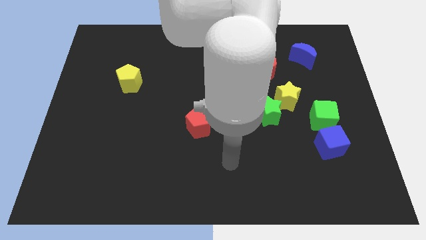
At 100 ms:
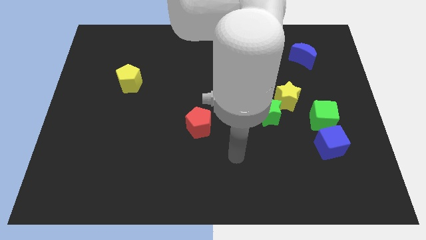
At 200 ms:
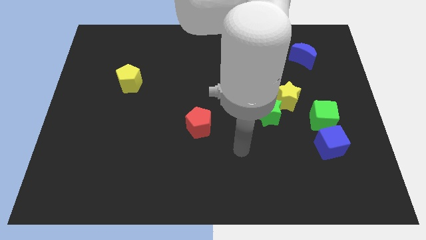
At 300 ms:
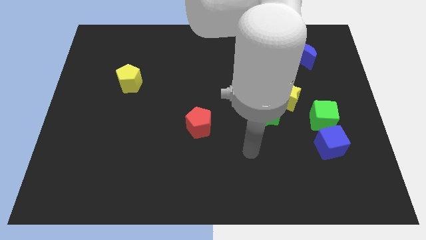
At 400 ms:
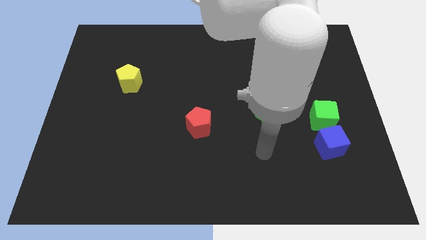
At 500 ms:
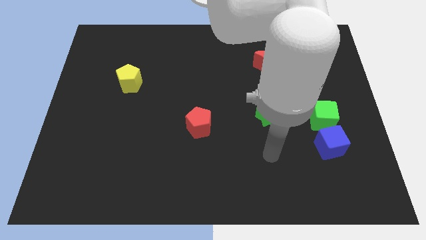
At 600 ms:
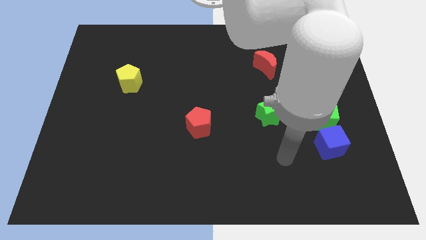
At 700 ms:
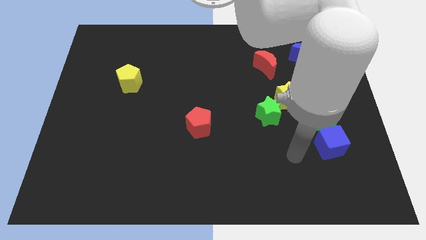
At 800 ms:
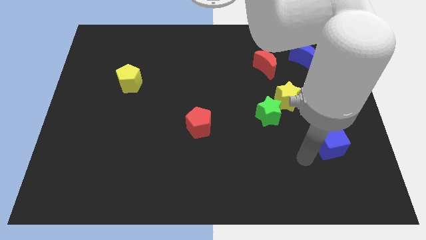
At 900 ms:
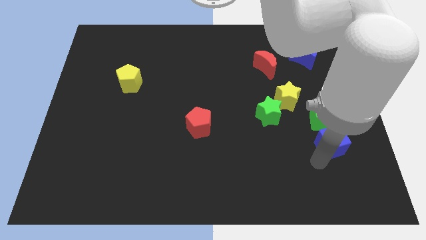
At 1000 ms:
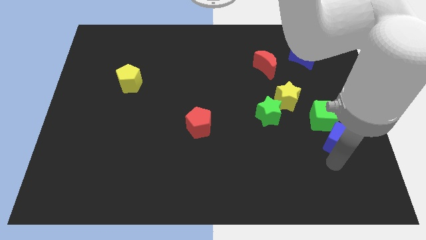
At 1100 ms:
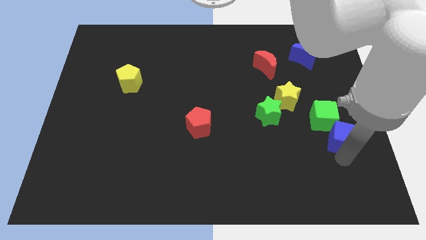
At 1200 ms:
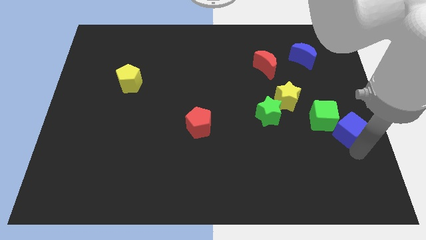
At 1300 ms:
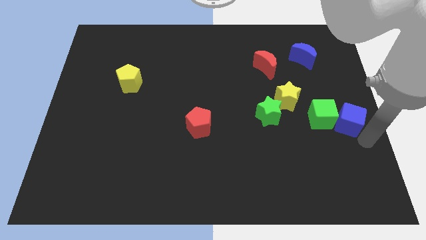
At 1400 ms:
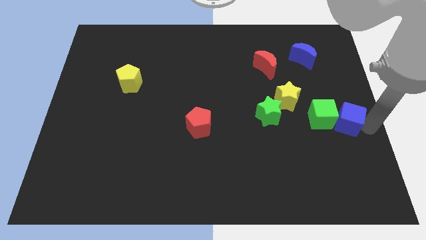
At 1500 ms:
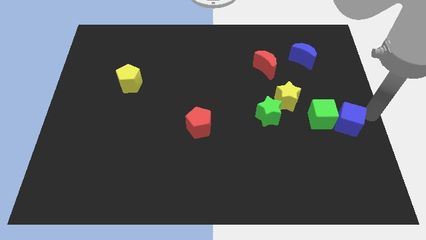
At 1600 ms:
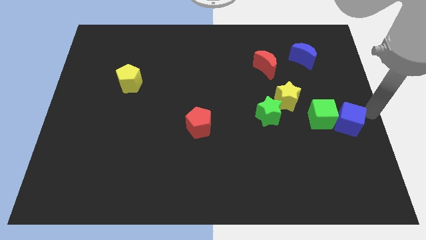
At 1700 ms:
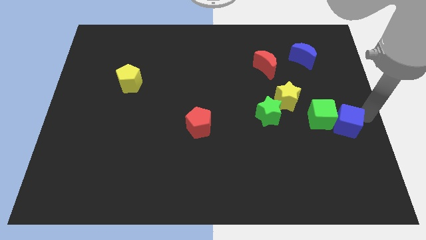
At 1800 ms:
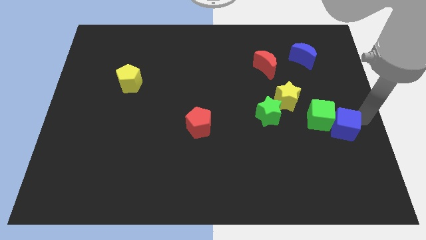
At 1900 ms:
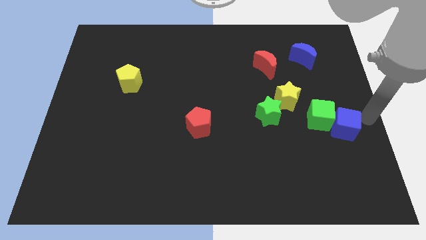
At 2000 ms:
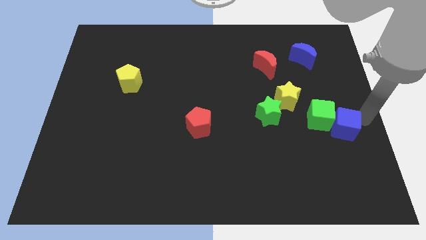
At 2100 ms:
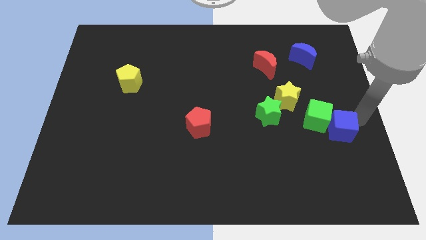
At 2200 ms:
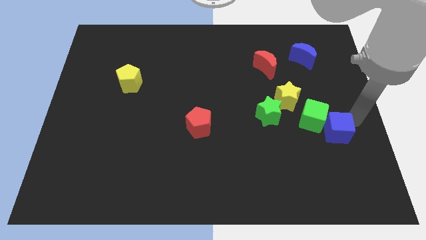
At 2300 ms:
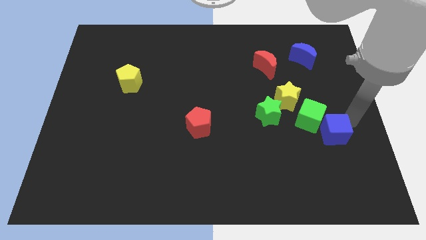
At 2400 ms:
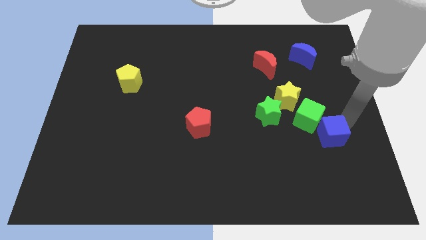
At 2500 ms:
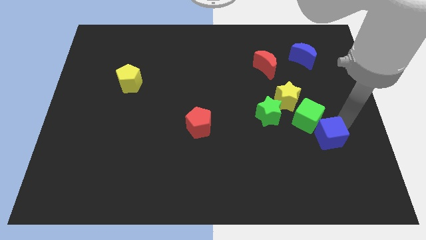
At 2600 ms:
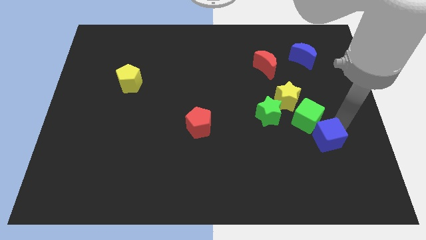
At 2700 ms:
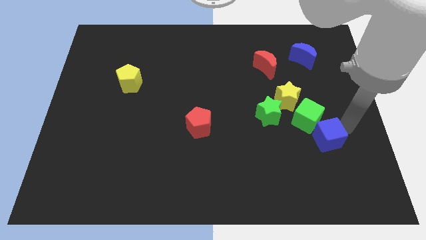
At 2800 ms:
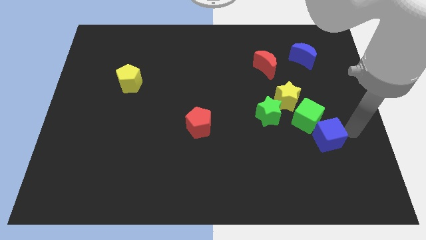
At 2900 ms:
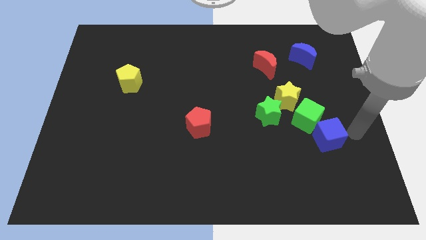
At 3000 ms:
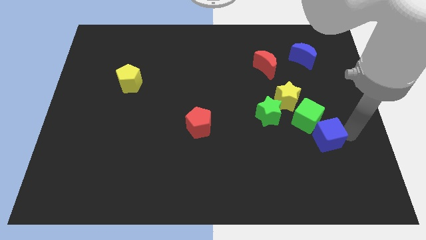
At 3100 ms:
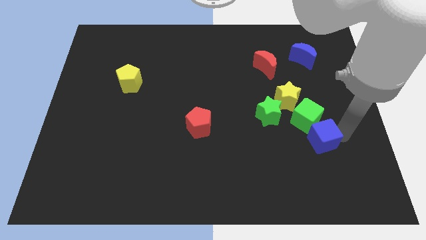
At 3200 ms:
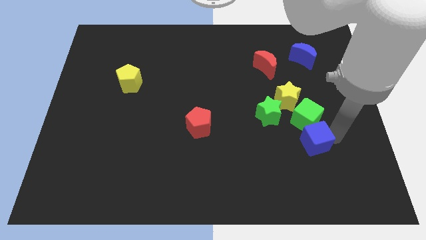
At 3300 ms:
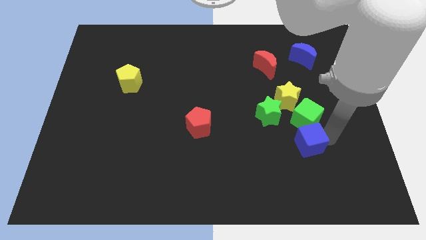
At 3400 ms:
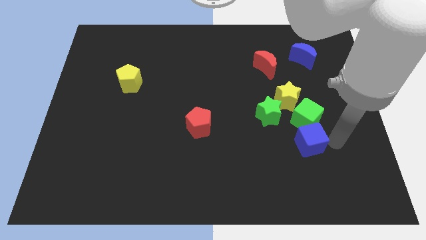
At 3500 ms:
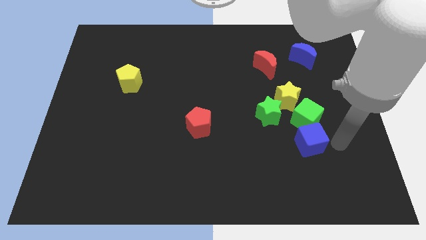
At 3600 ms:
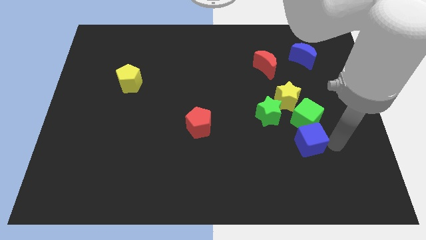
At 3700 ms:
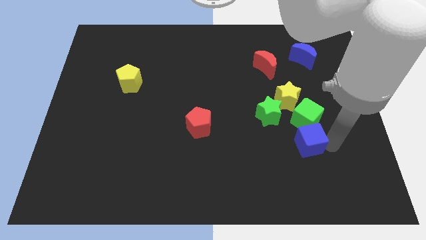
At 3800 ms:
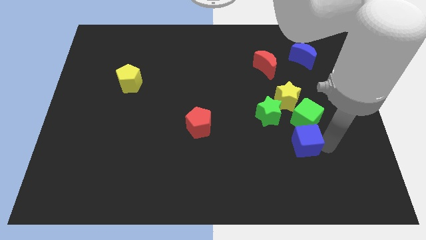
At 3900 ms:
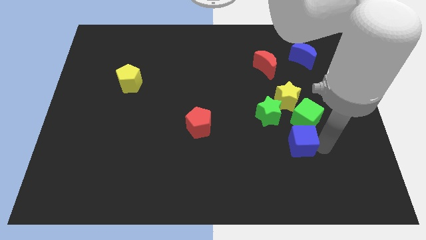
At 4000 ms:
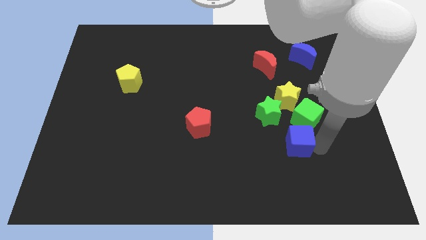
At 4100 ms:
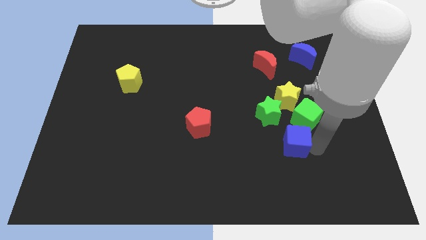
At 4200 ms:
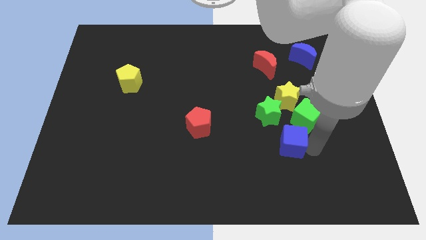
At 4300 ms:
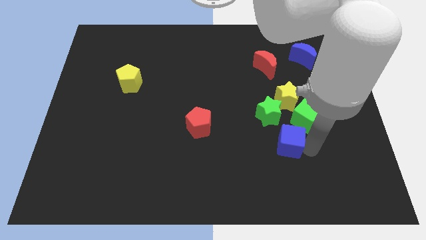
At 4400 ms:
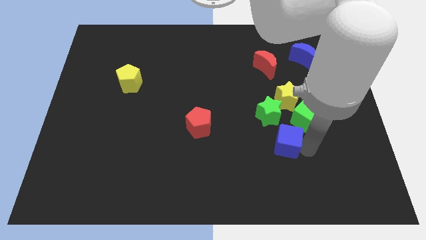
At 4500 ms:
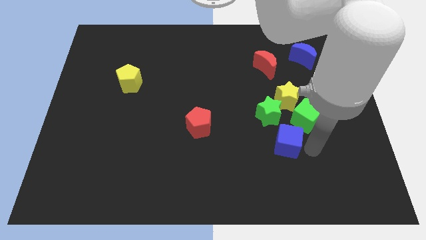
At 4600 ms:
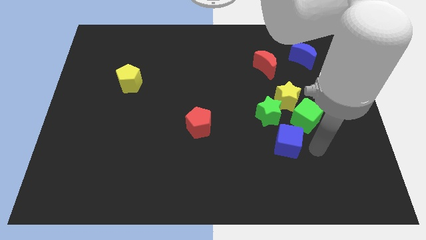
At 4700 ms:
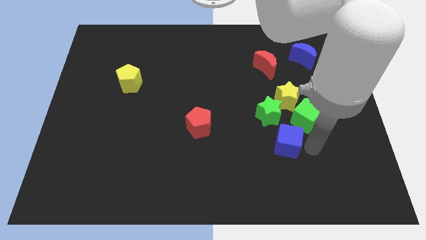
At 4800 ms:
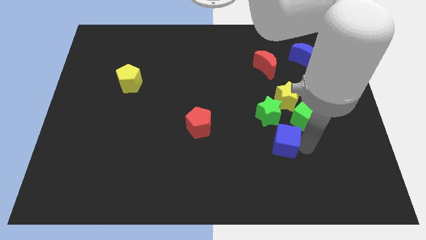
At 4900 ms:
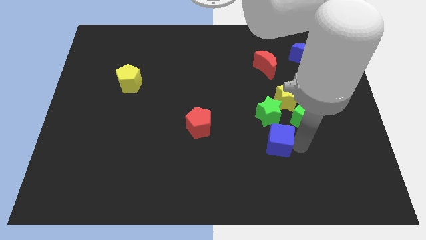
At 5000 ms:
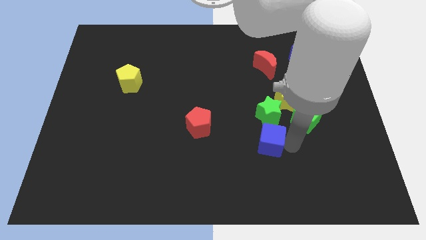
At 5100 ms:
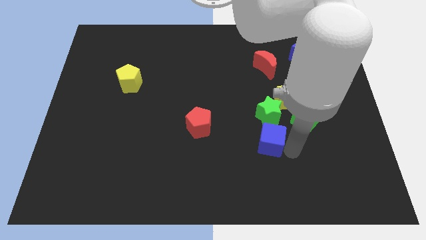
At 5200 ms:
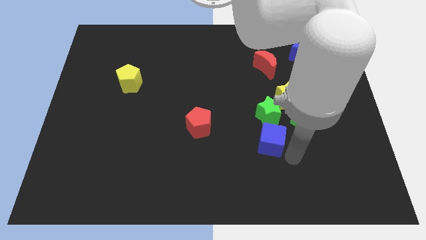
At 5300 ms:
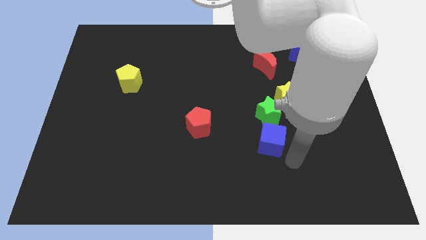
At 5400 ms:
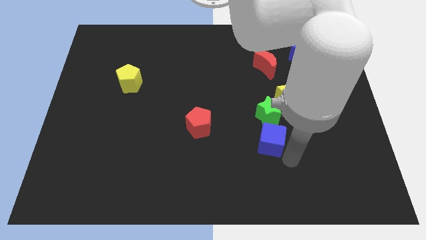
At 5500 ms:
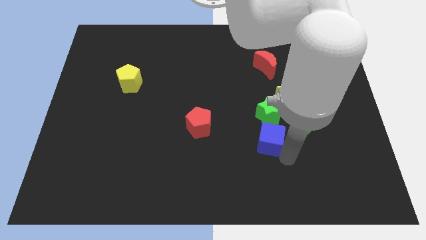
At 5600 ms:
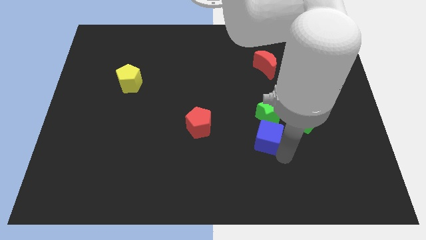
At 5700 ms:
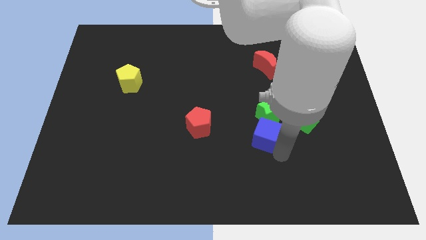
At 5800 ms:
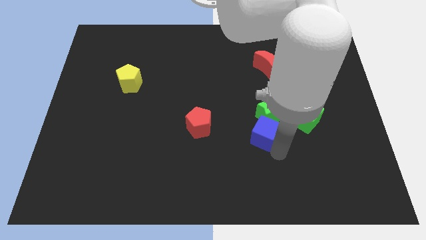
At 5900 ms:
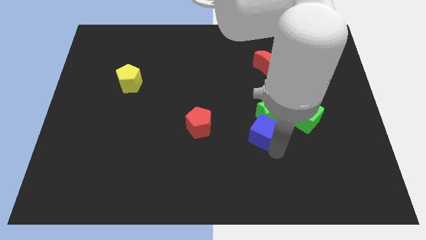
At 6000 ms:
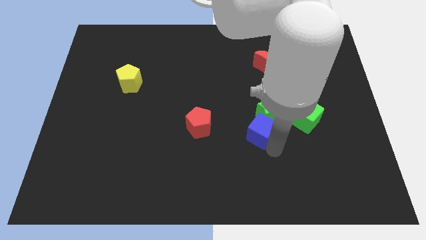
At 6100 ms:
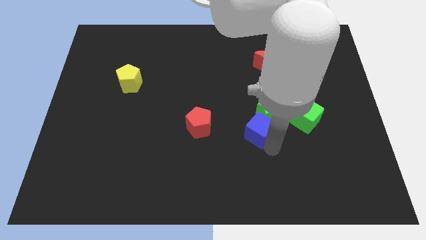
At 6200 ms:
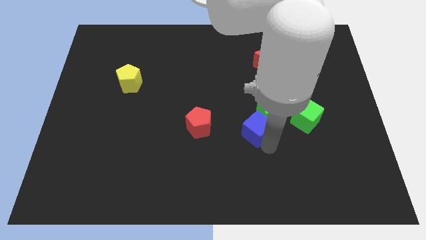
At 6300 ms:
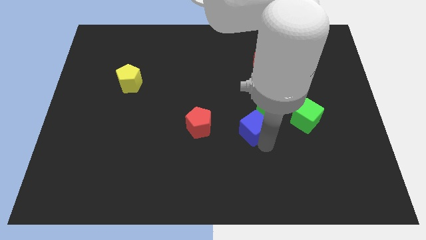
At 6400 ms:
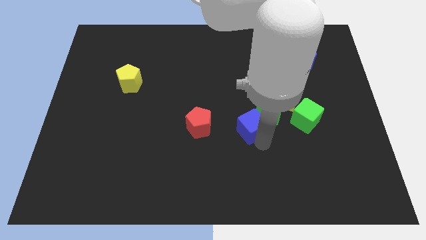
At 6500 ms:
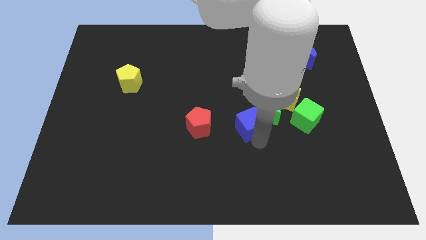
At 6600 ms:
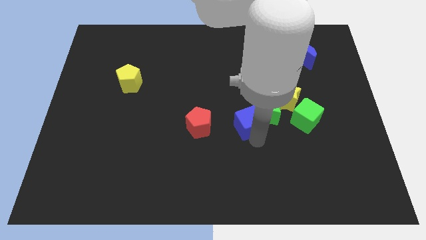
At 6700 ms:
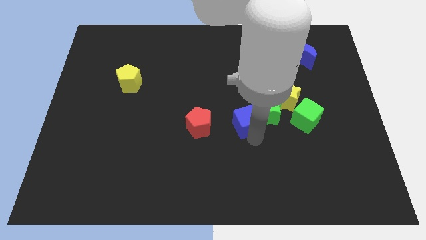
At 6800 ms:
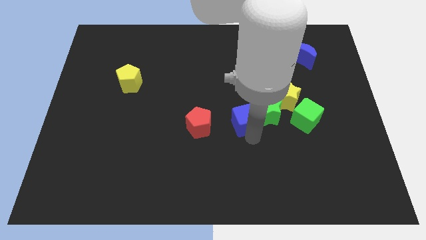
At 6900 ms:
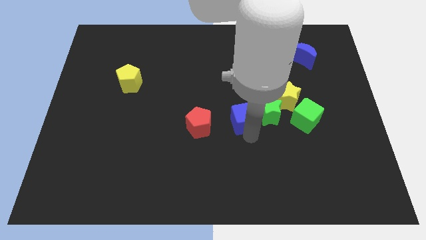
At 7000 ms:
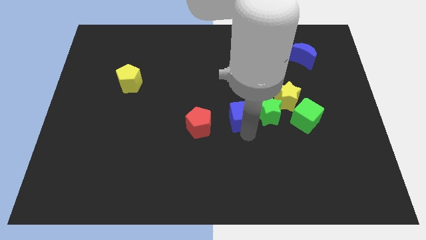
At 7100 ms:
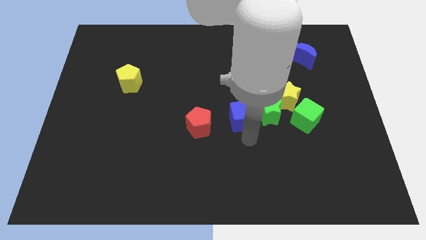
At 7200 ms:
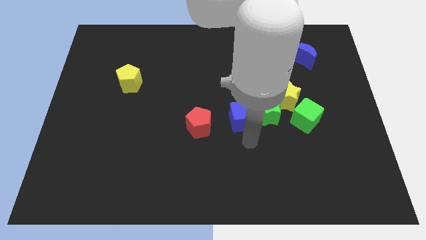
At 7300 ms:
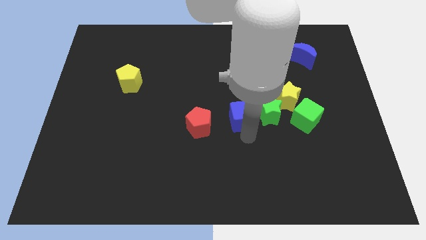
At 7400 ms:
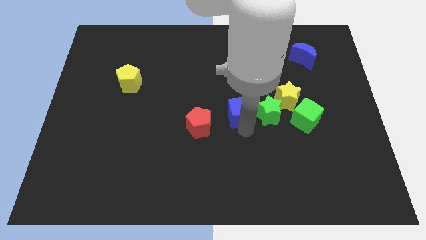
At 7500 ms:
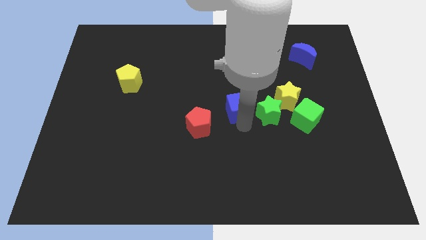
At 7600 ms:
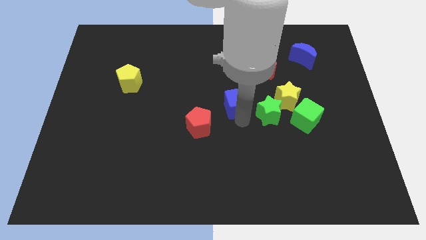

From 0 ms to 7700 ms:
push the blue cube upwards and to the left diagonally

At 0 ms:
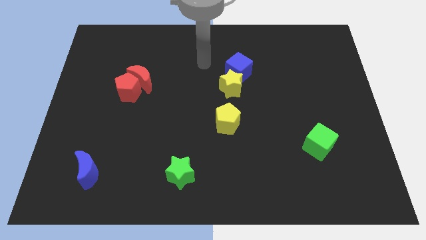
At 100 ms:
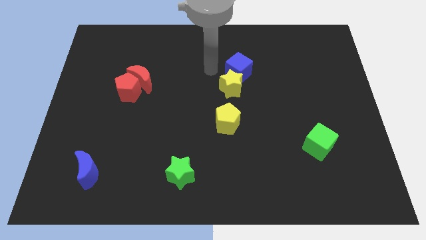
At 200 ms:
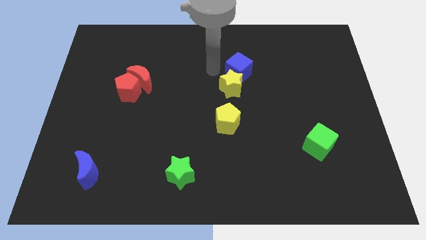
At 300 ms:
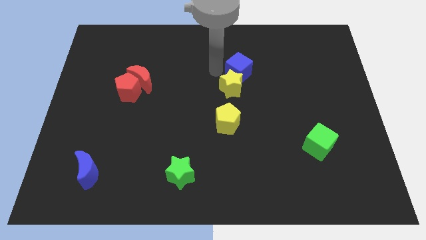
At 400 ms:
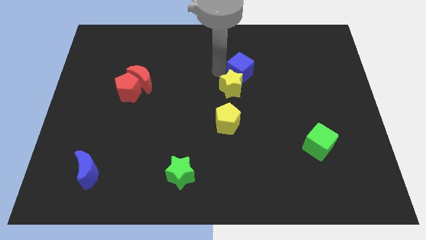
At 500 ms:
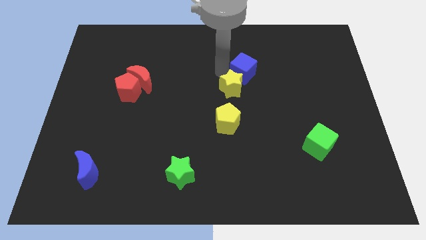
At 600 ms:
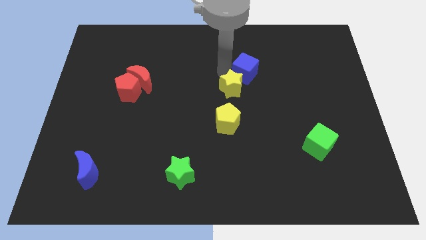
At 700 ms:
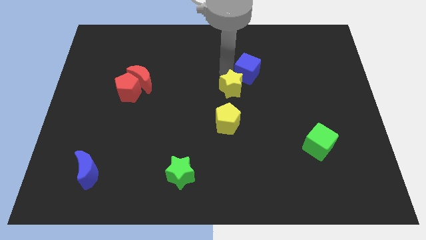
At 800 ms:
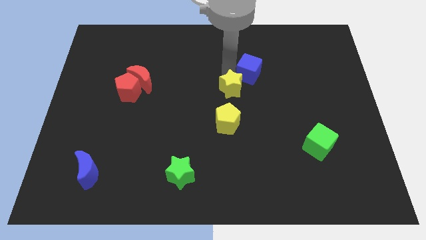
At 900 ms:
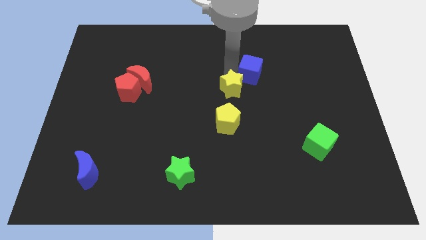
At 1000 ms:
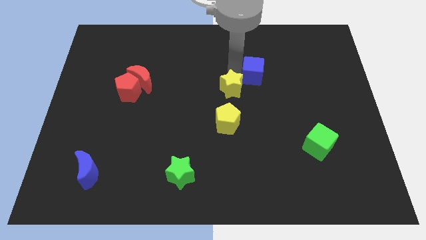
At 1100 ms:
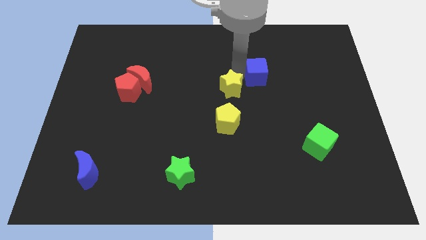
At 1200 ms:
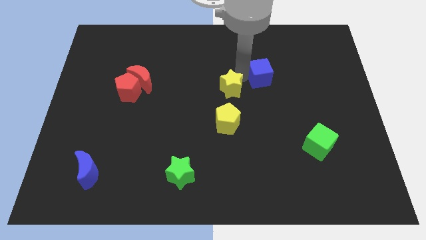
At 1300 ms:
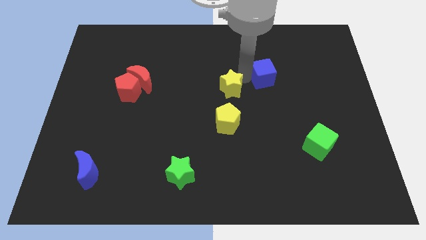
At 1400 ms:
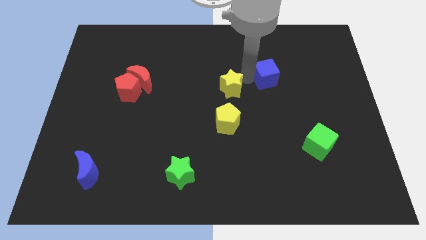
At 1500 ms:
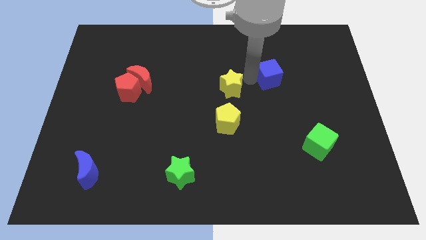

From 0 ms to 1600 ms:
move the blue cube a bit right
